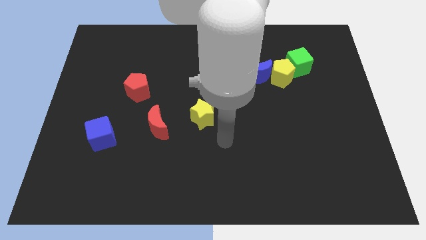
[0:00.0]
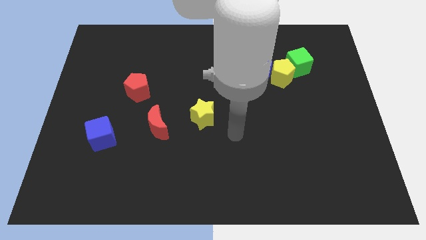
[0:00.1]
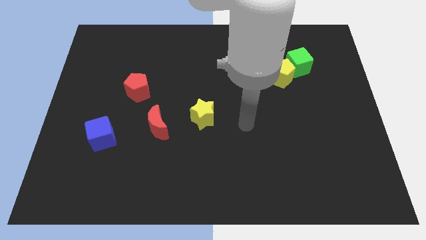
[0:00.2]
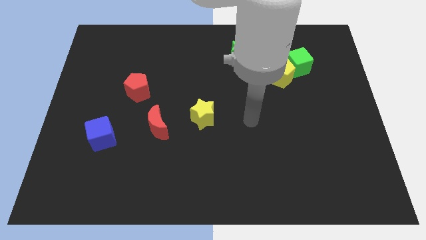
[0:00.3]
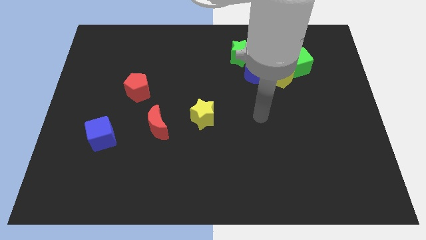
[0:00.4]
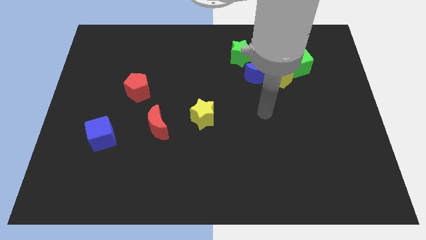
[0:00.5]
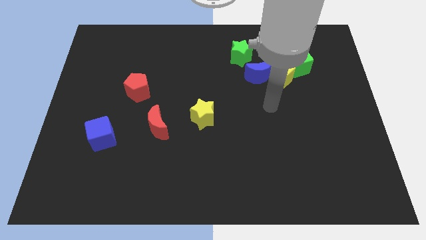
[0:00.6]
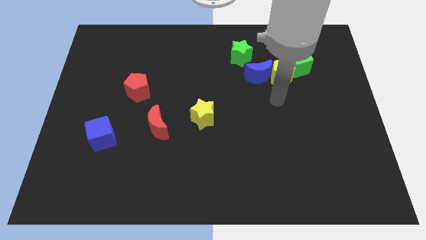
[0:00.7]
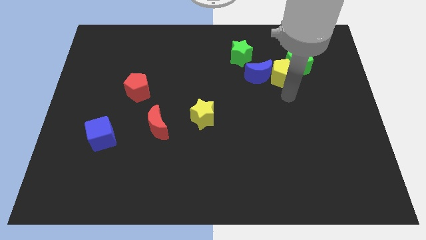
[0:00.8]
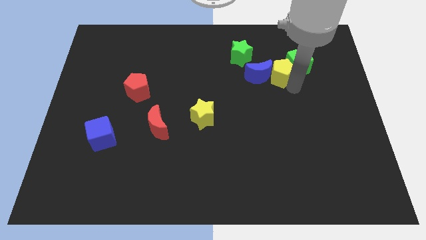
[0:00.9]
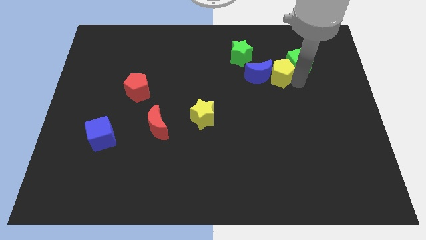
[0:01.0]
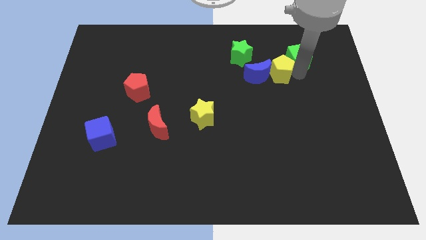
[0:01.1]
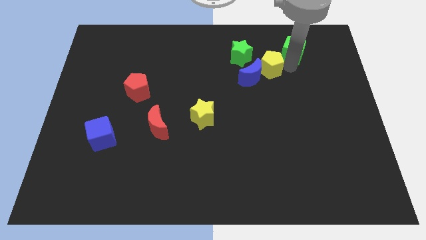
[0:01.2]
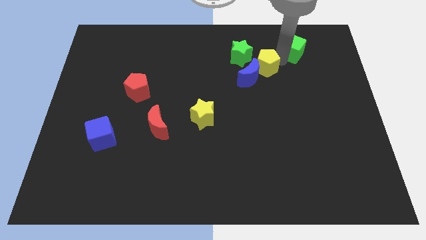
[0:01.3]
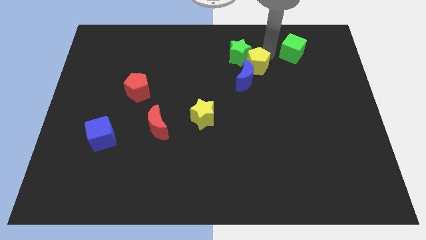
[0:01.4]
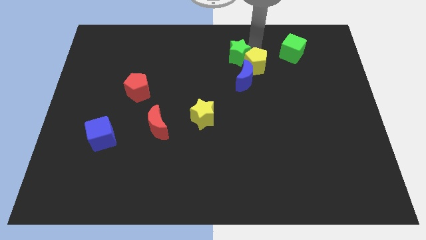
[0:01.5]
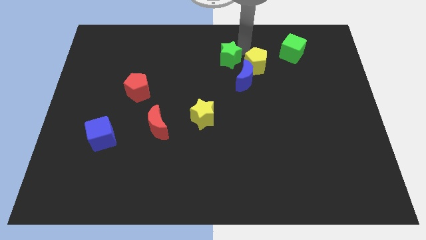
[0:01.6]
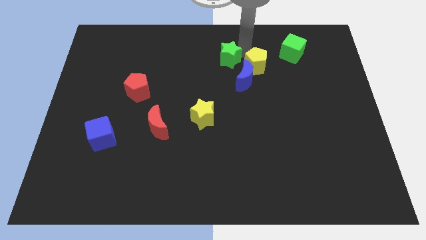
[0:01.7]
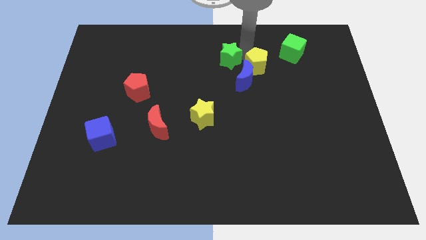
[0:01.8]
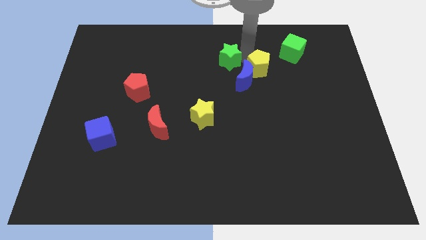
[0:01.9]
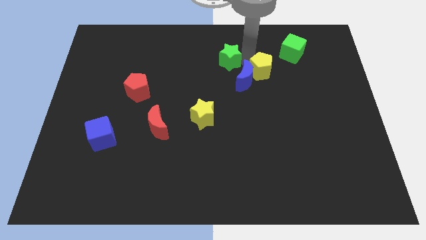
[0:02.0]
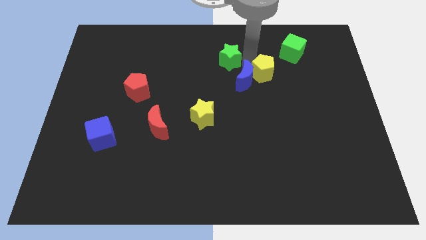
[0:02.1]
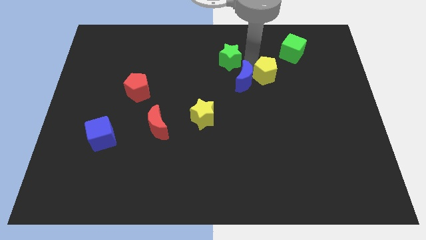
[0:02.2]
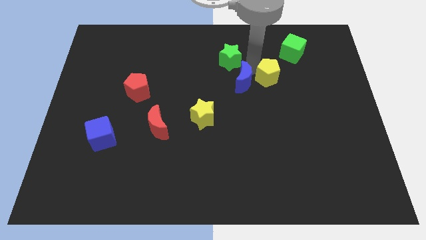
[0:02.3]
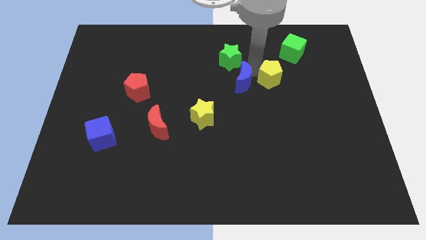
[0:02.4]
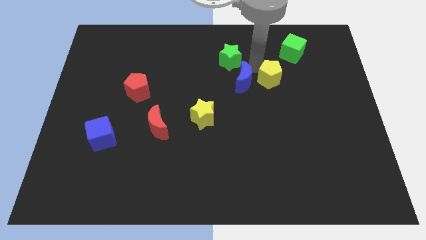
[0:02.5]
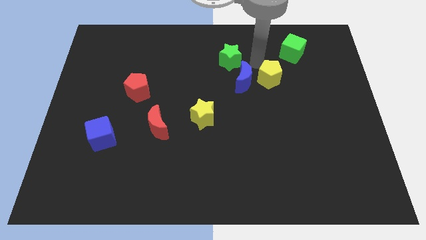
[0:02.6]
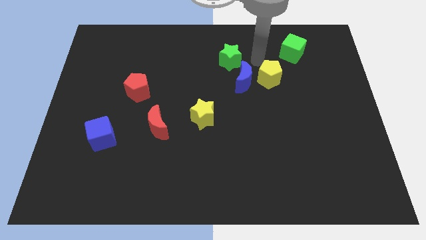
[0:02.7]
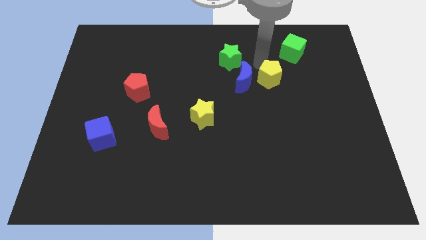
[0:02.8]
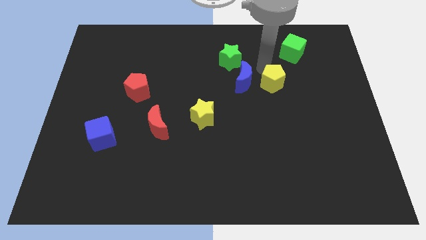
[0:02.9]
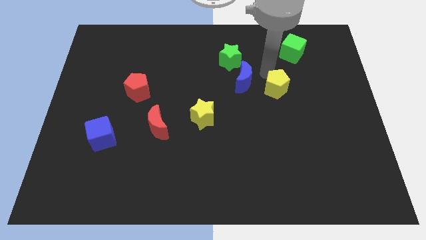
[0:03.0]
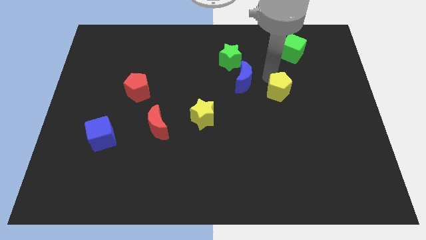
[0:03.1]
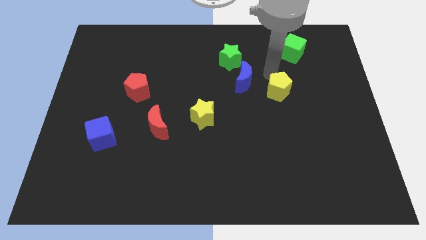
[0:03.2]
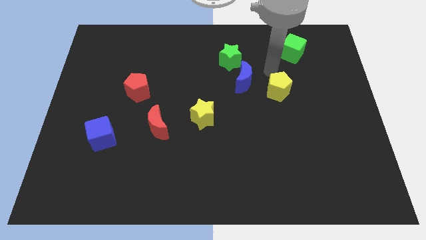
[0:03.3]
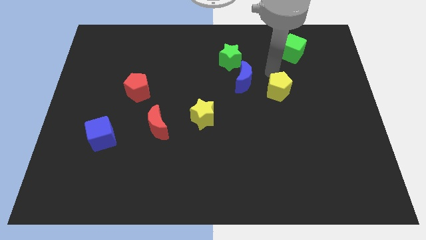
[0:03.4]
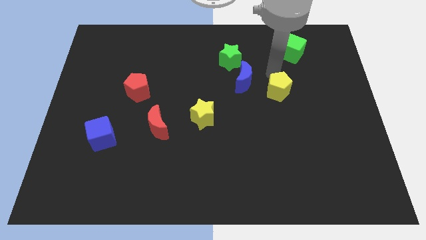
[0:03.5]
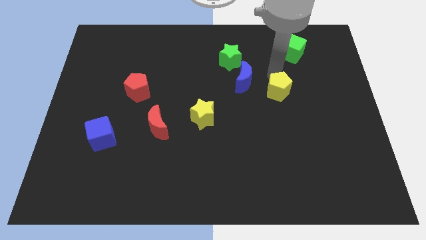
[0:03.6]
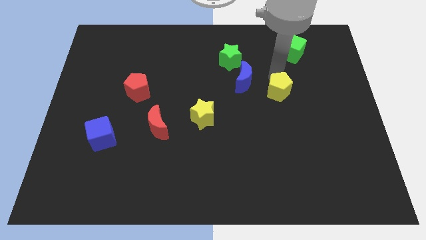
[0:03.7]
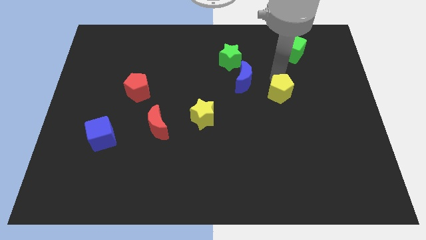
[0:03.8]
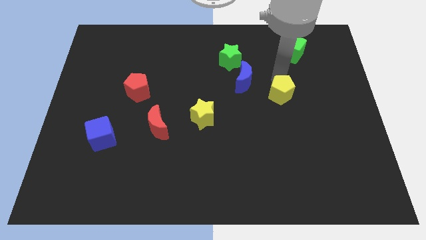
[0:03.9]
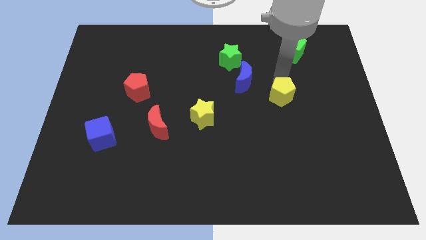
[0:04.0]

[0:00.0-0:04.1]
separate the yellow pentagon from the blue moon and green cube

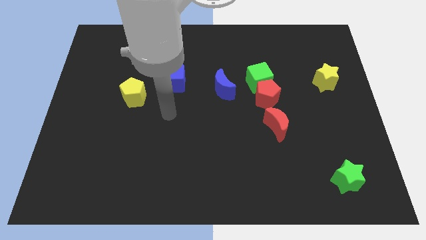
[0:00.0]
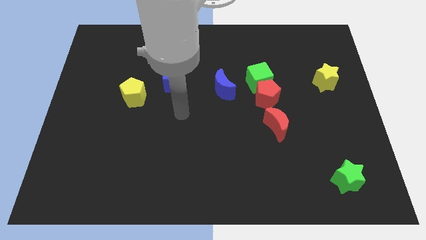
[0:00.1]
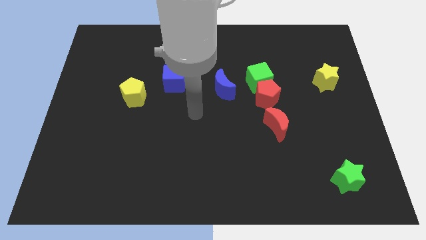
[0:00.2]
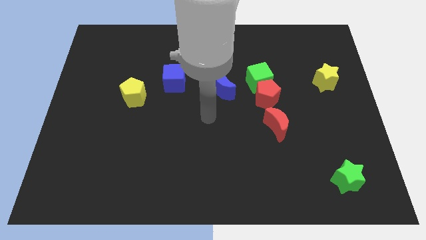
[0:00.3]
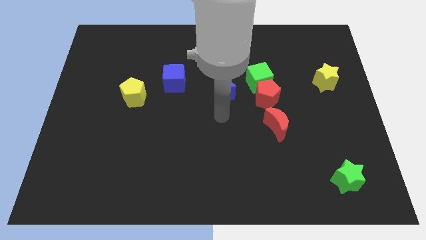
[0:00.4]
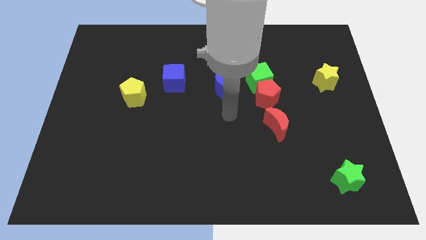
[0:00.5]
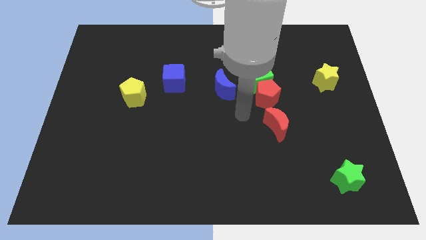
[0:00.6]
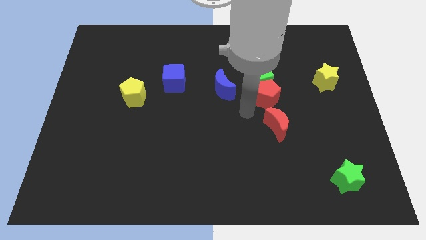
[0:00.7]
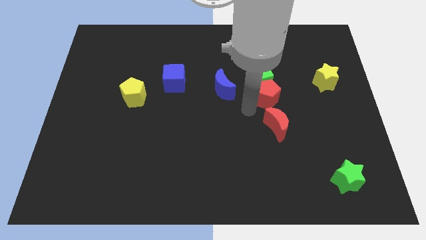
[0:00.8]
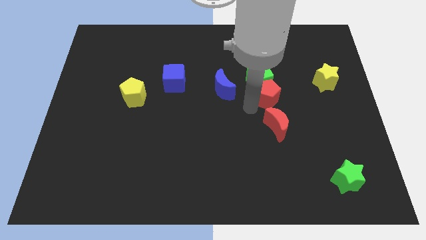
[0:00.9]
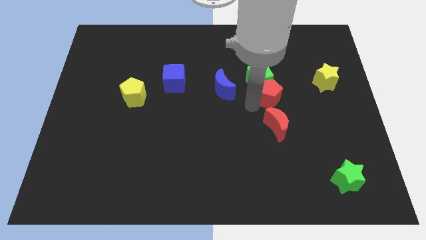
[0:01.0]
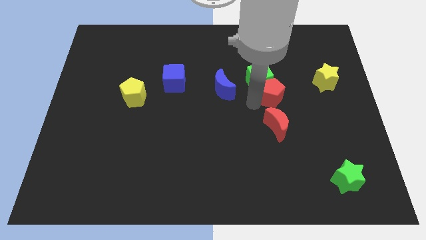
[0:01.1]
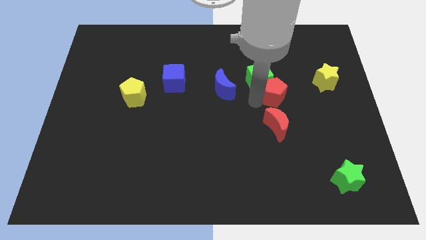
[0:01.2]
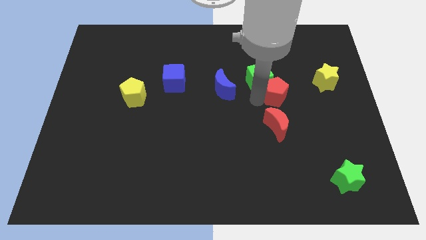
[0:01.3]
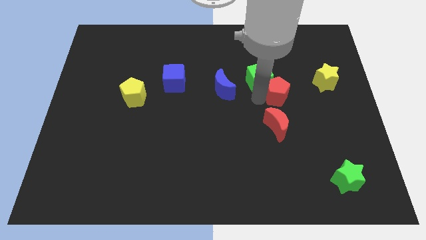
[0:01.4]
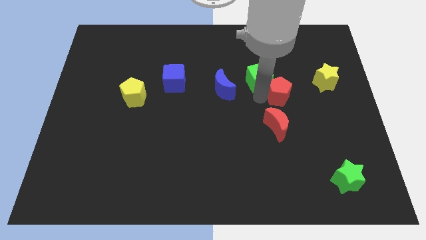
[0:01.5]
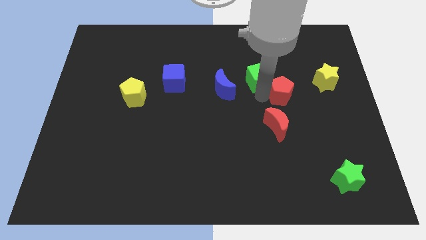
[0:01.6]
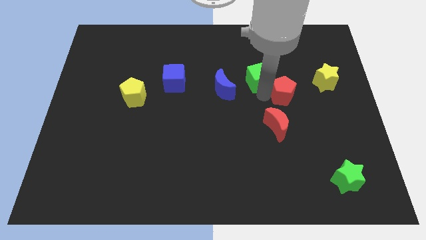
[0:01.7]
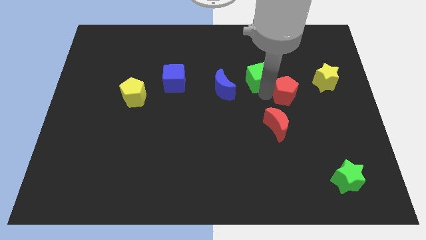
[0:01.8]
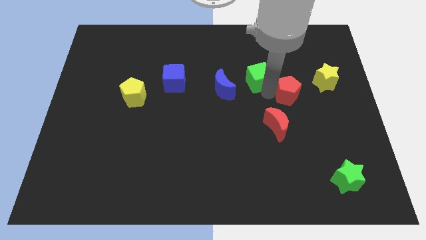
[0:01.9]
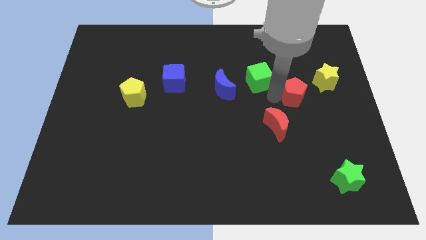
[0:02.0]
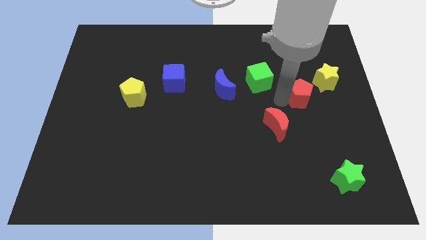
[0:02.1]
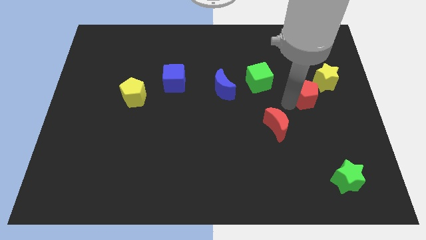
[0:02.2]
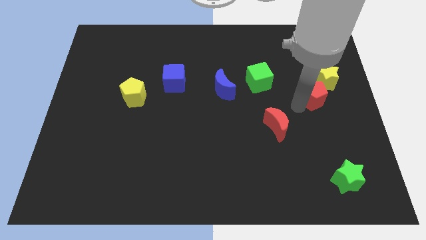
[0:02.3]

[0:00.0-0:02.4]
pull the red pentagon apart from the green cube and red moon

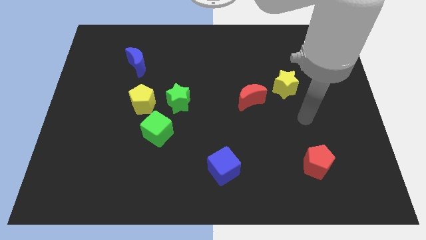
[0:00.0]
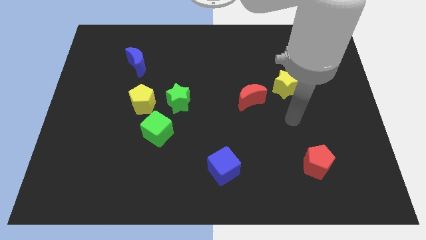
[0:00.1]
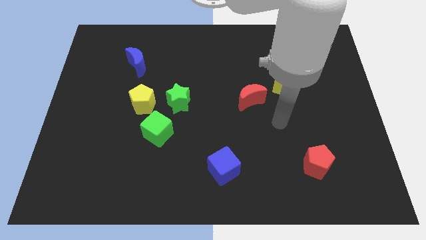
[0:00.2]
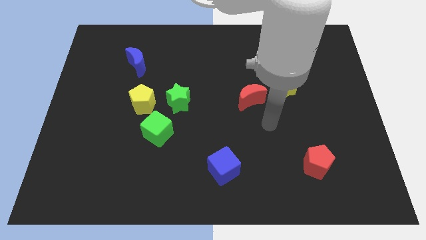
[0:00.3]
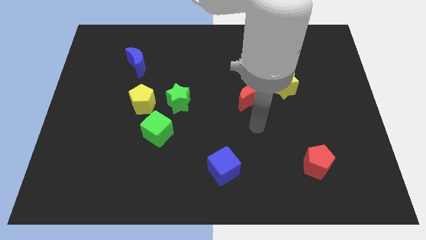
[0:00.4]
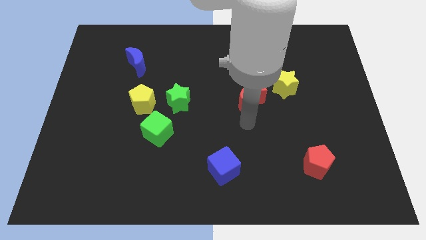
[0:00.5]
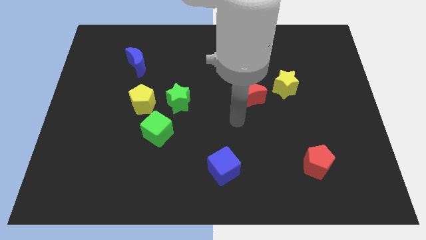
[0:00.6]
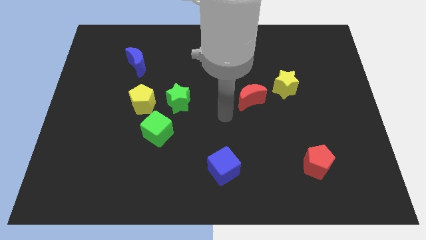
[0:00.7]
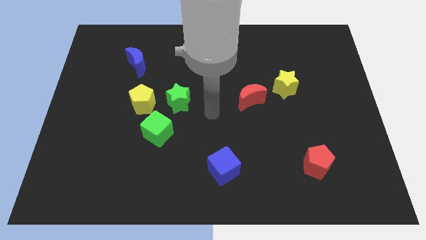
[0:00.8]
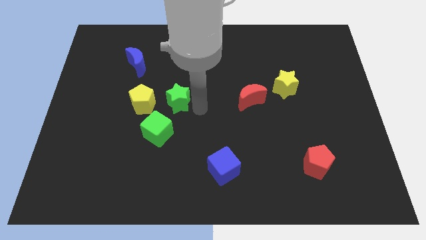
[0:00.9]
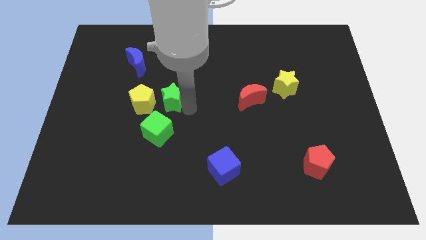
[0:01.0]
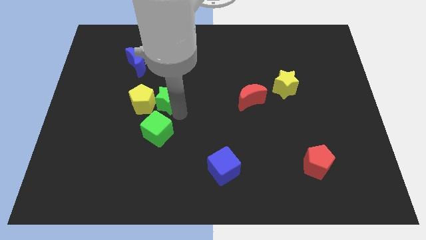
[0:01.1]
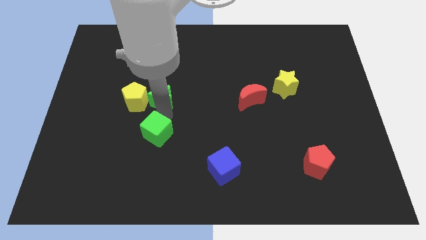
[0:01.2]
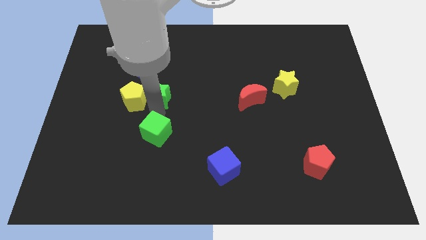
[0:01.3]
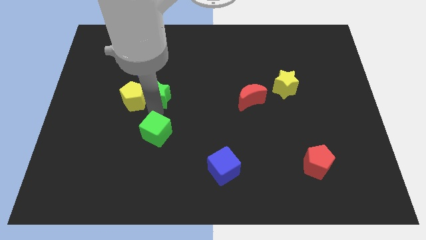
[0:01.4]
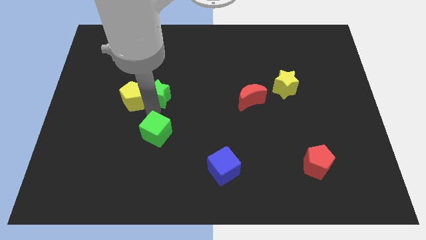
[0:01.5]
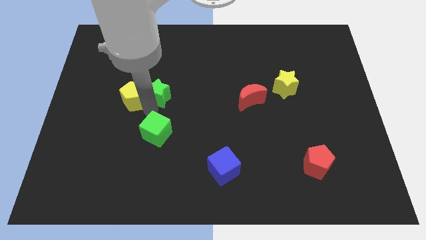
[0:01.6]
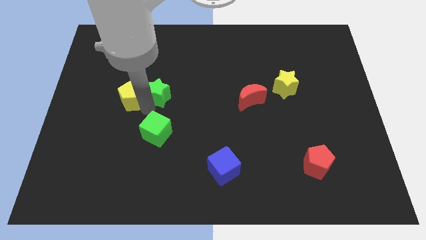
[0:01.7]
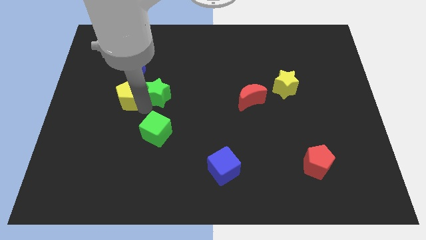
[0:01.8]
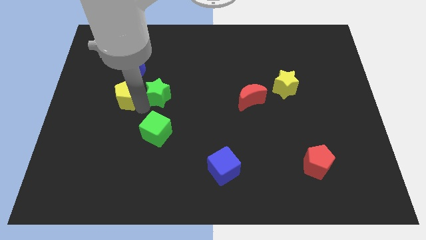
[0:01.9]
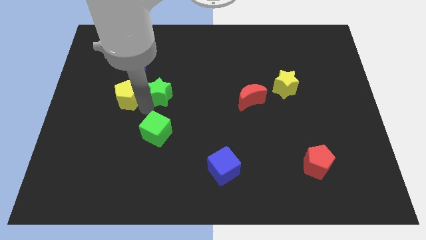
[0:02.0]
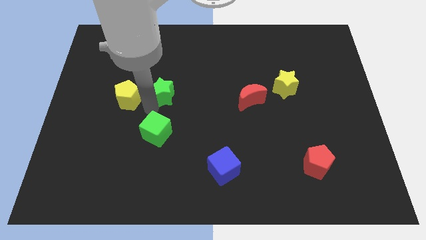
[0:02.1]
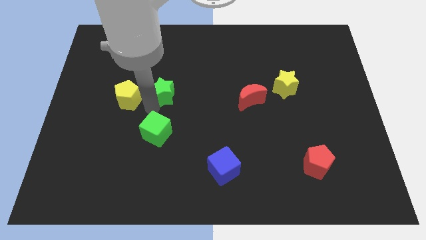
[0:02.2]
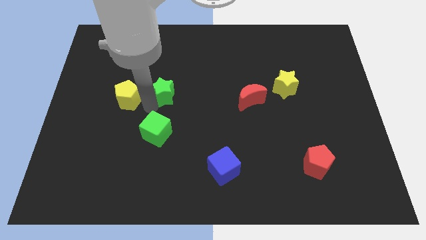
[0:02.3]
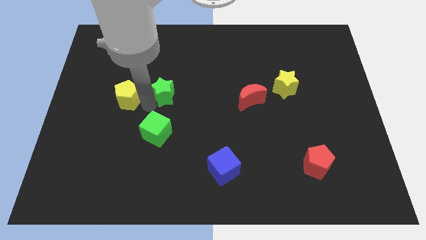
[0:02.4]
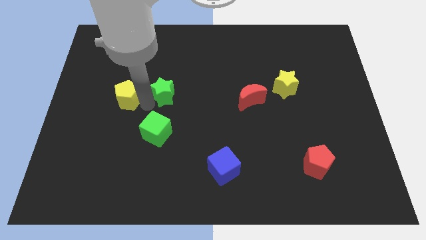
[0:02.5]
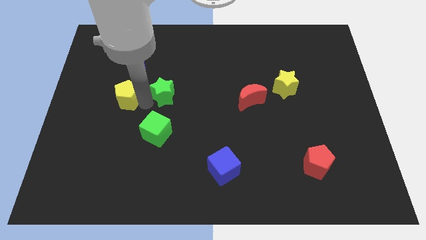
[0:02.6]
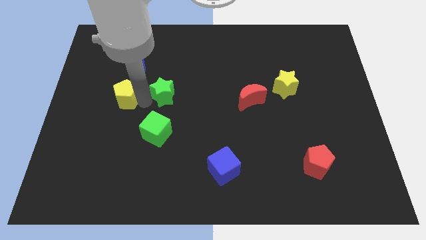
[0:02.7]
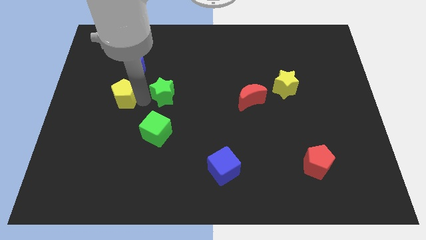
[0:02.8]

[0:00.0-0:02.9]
move the yellow pentagon away from the green star and green cube
